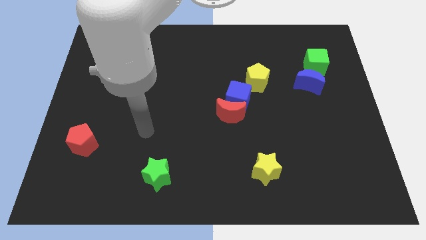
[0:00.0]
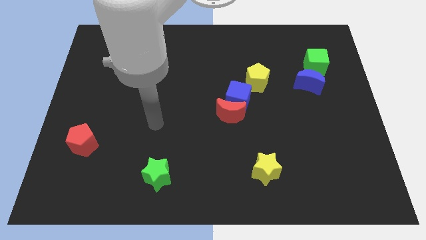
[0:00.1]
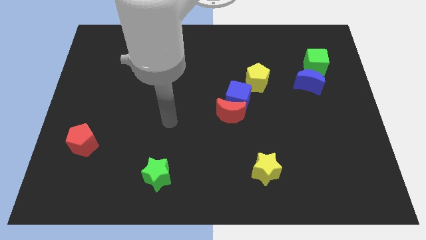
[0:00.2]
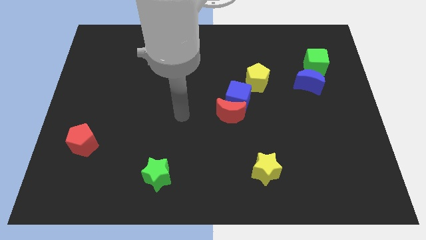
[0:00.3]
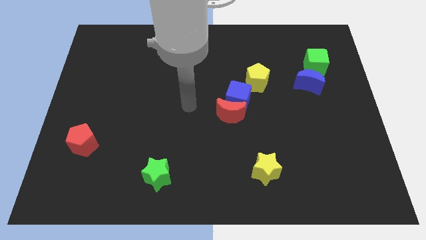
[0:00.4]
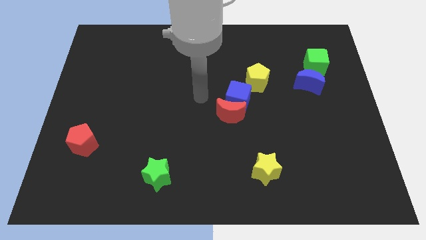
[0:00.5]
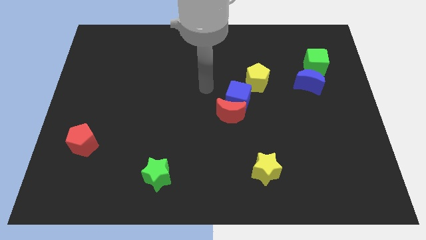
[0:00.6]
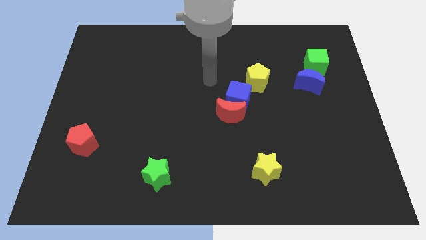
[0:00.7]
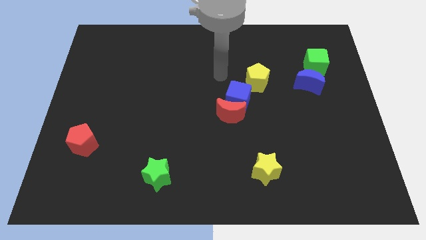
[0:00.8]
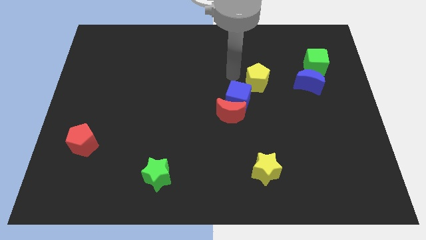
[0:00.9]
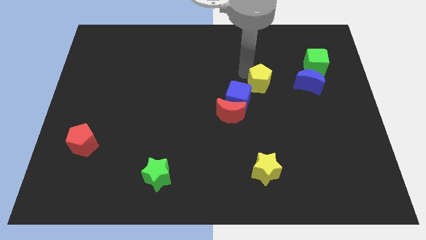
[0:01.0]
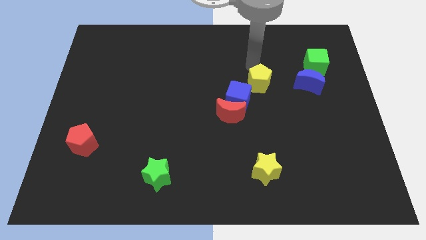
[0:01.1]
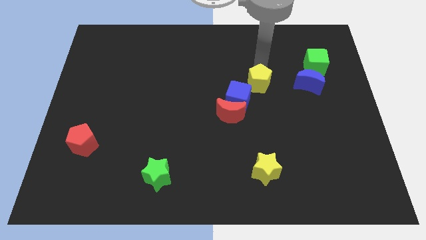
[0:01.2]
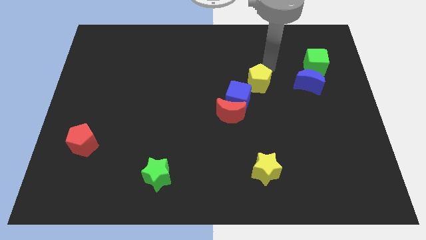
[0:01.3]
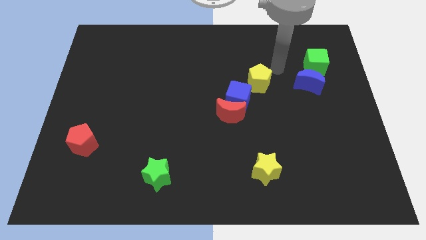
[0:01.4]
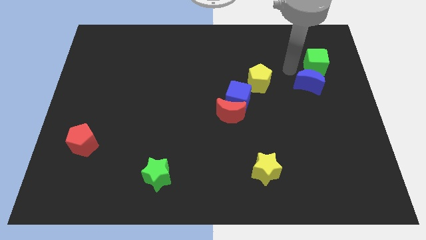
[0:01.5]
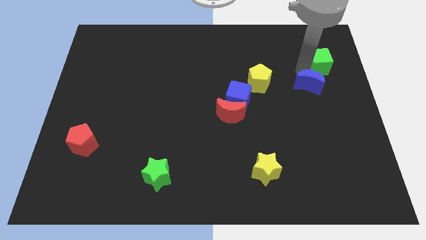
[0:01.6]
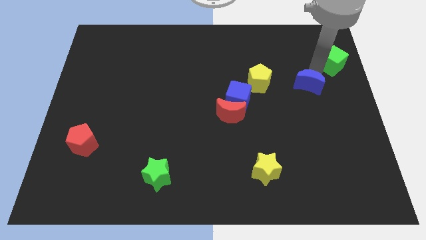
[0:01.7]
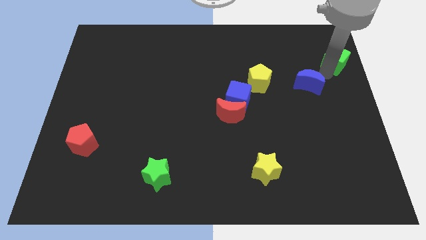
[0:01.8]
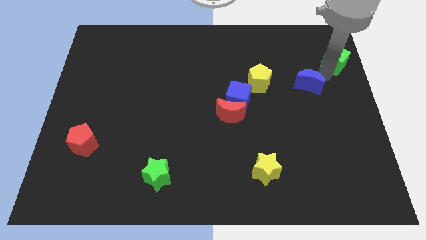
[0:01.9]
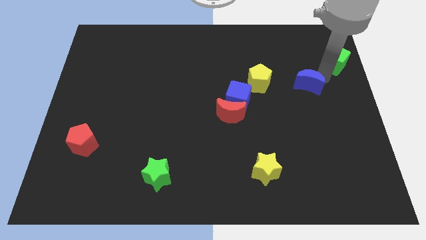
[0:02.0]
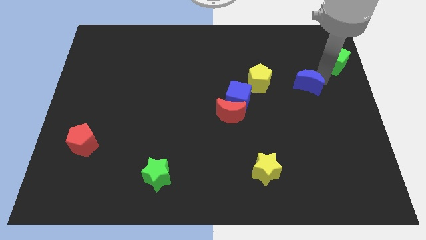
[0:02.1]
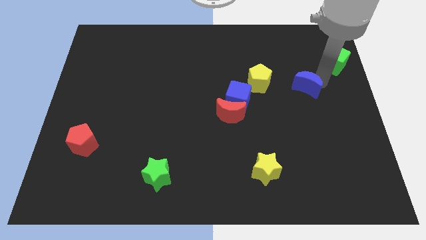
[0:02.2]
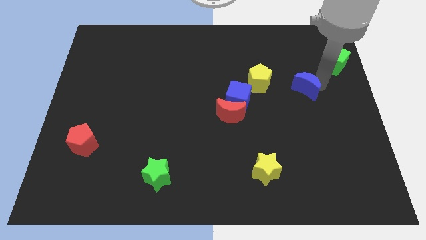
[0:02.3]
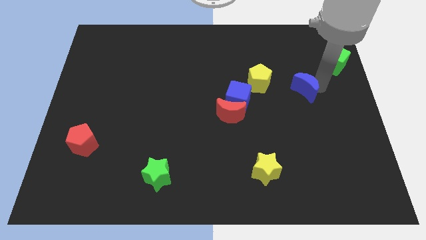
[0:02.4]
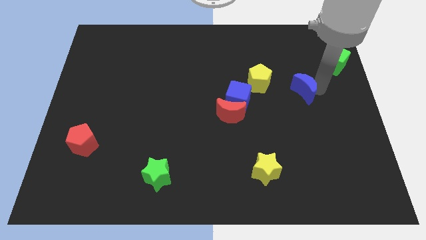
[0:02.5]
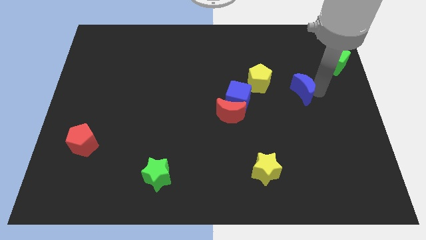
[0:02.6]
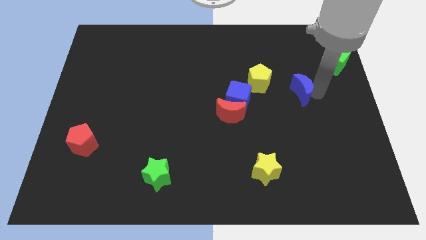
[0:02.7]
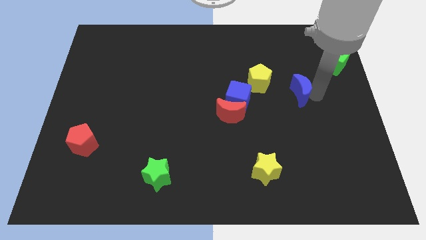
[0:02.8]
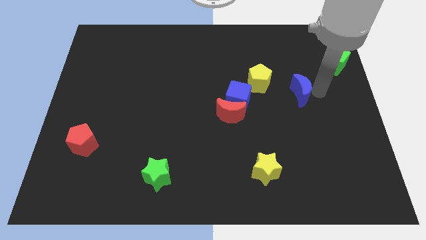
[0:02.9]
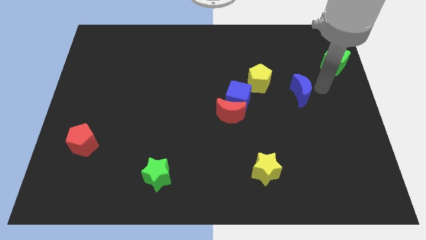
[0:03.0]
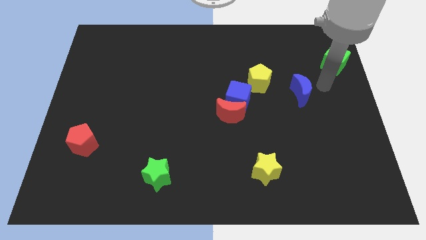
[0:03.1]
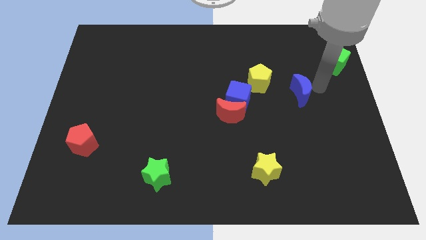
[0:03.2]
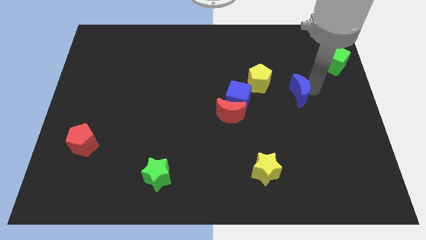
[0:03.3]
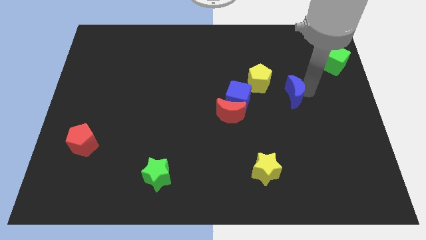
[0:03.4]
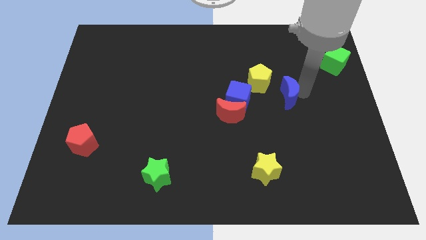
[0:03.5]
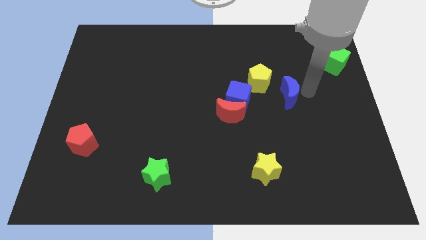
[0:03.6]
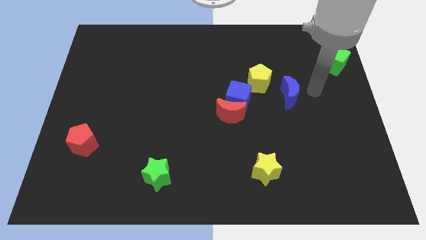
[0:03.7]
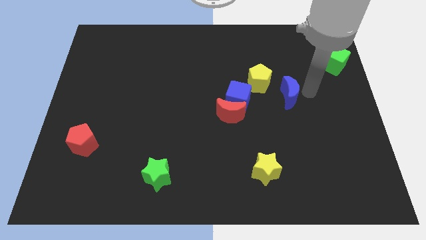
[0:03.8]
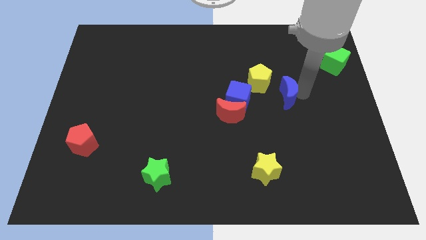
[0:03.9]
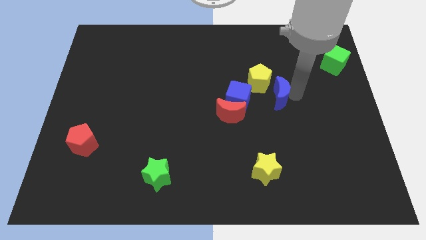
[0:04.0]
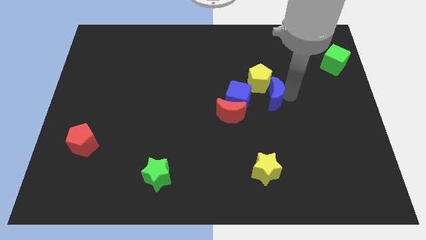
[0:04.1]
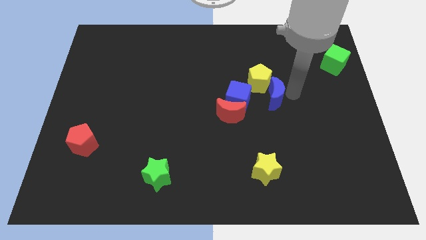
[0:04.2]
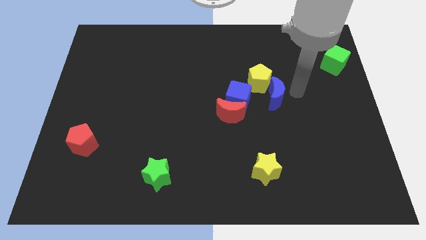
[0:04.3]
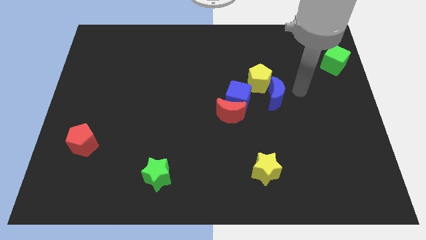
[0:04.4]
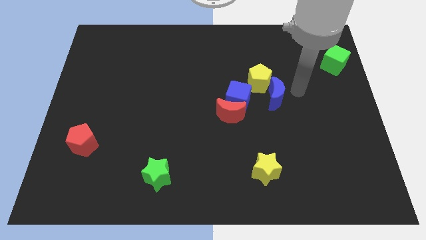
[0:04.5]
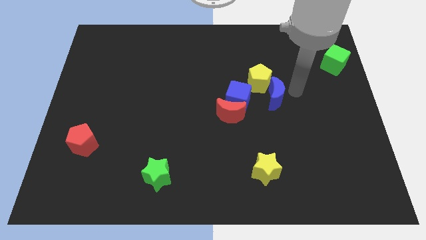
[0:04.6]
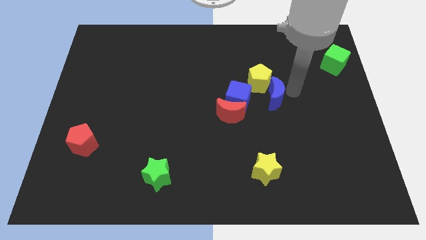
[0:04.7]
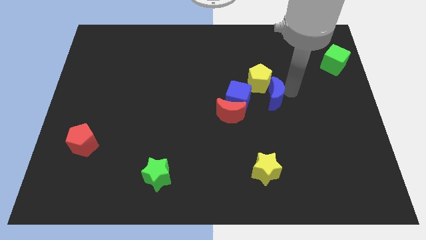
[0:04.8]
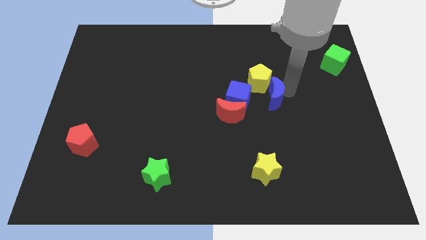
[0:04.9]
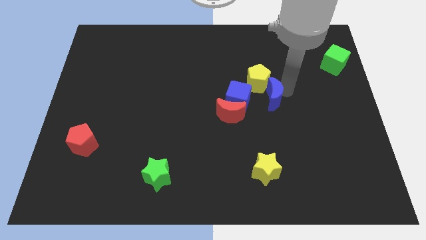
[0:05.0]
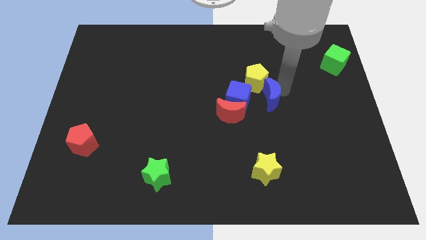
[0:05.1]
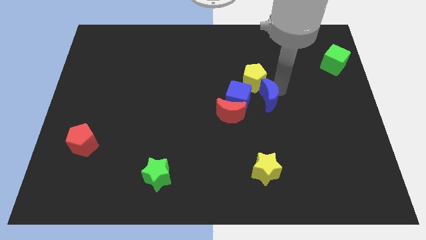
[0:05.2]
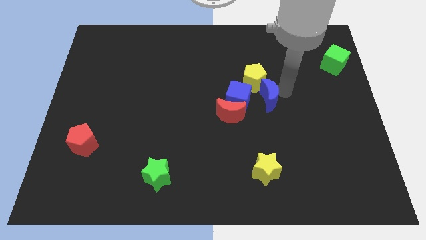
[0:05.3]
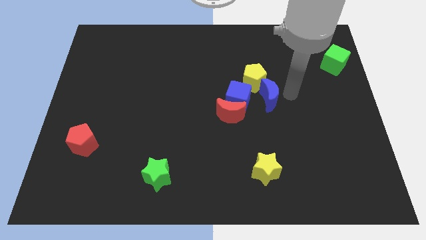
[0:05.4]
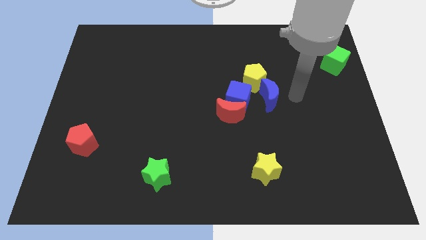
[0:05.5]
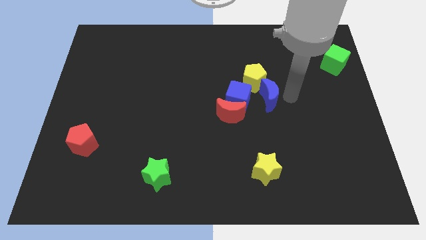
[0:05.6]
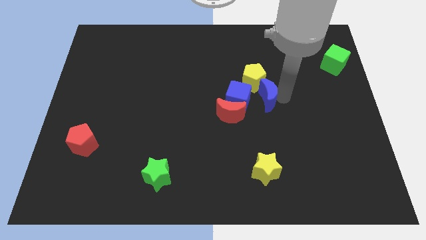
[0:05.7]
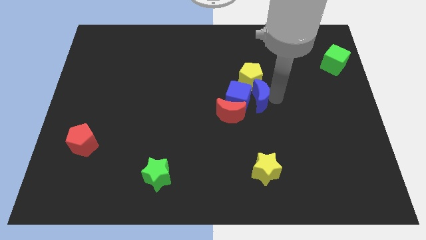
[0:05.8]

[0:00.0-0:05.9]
move the blue moon next to the blue cube

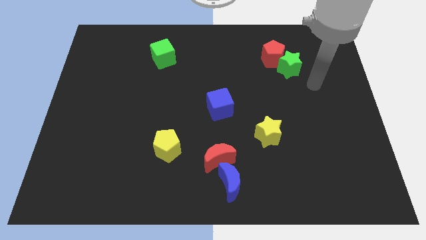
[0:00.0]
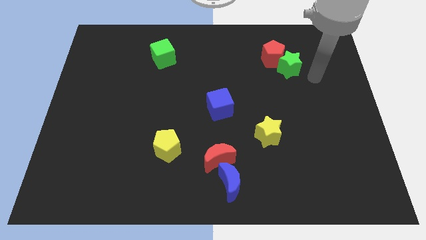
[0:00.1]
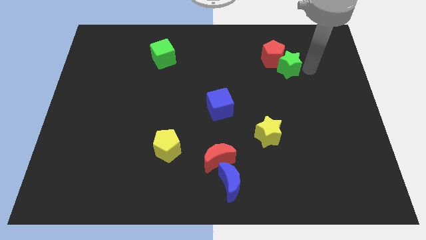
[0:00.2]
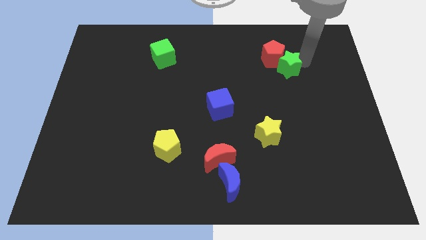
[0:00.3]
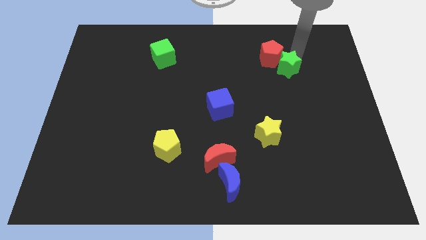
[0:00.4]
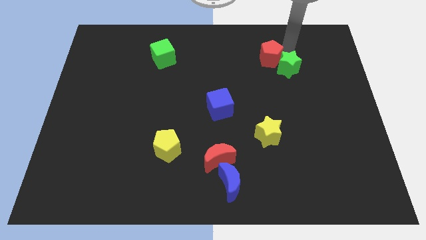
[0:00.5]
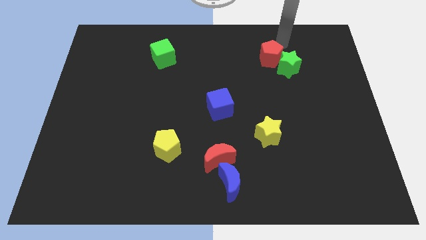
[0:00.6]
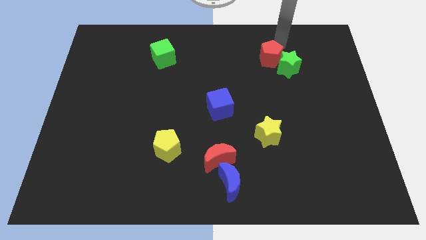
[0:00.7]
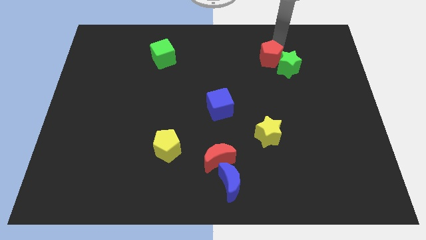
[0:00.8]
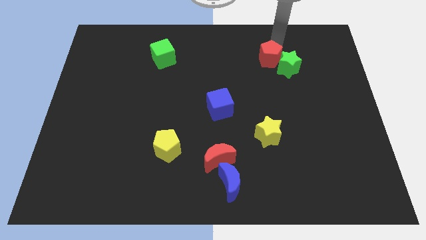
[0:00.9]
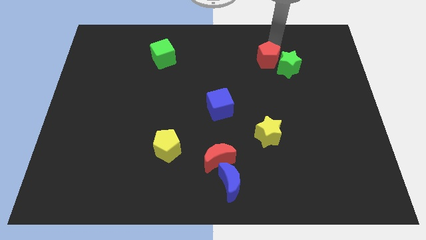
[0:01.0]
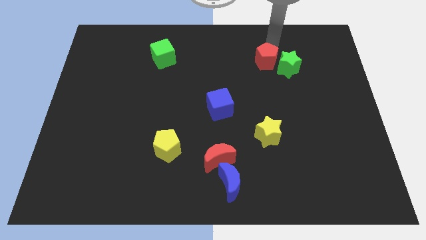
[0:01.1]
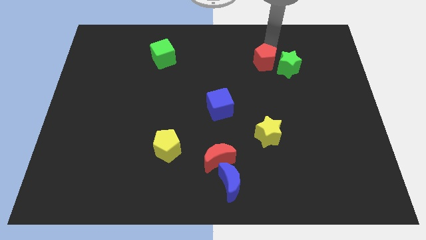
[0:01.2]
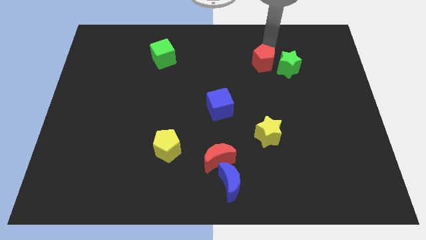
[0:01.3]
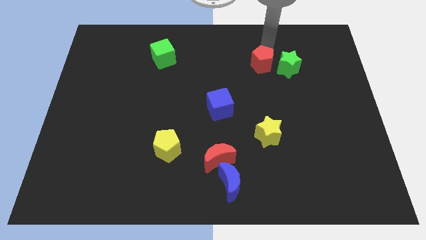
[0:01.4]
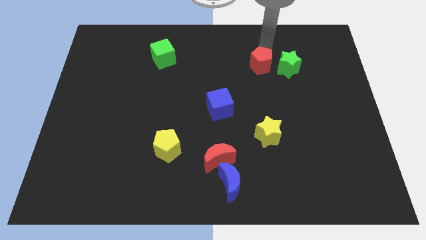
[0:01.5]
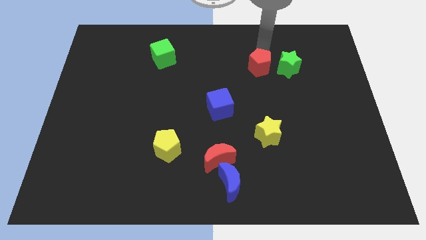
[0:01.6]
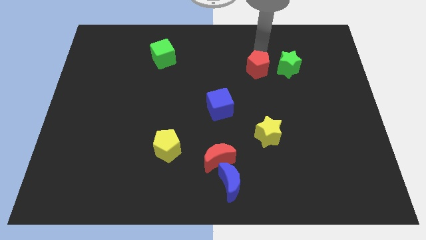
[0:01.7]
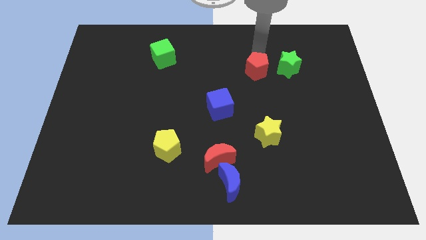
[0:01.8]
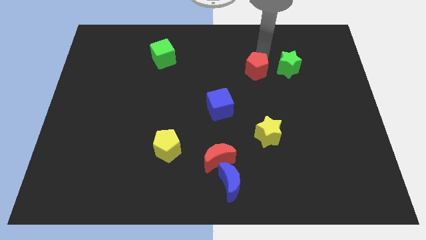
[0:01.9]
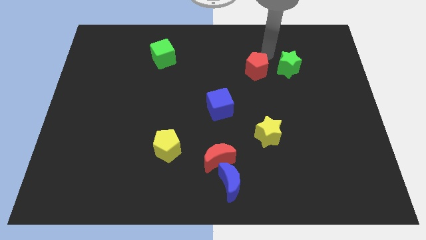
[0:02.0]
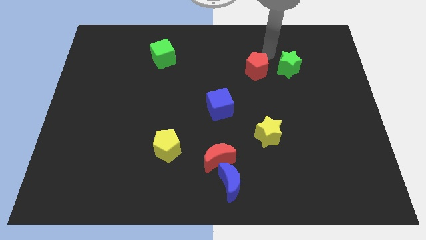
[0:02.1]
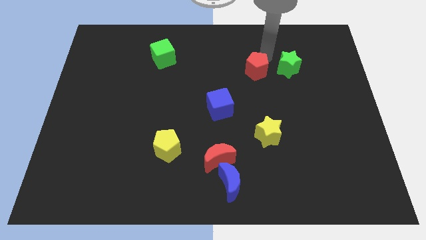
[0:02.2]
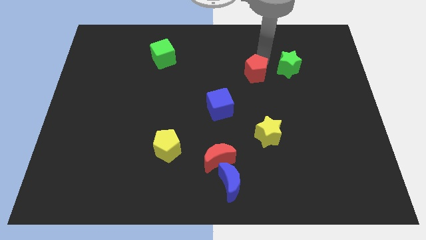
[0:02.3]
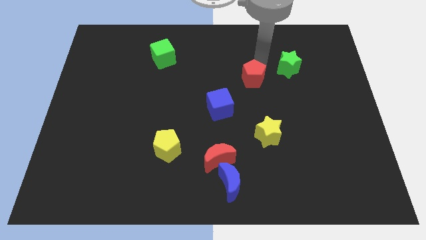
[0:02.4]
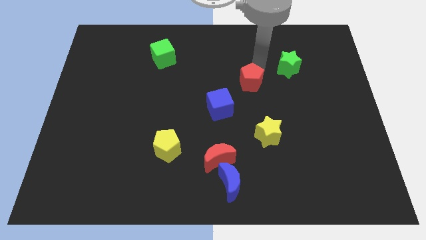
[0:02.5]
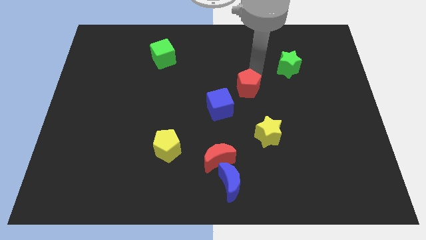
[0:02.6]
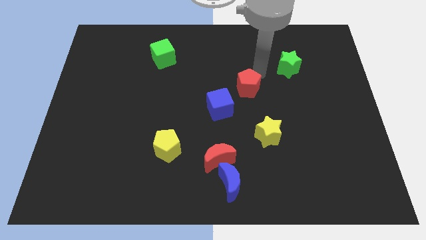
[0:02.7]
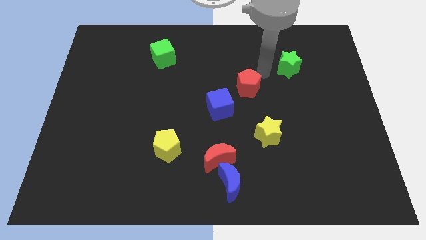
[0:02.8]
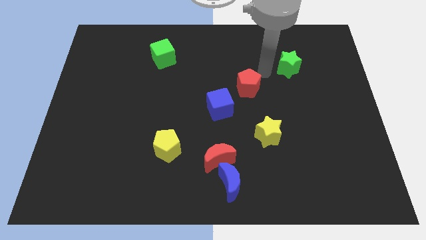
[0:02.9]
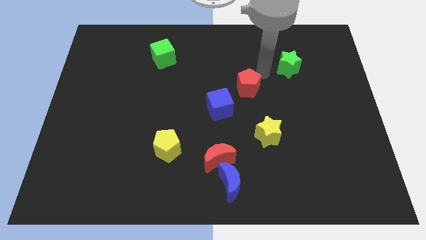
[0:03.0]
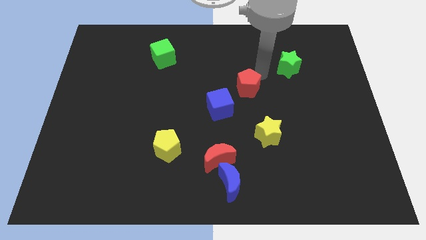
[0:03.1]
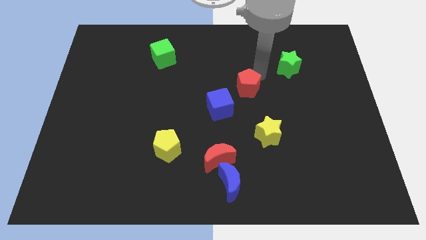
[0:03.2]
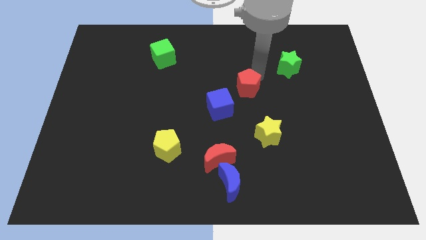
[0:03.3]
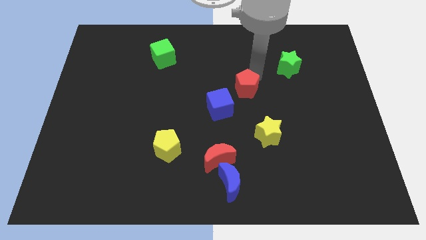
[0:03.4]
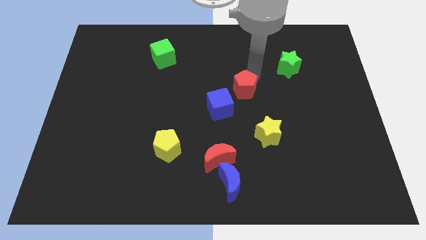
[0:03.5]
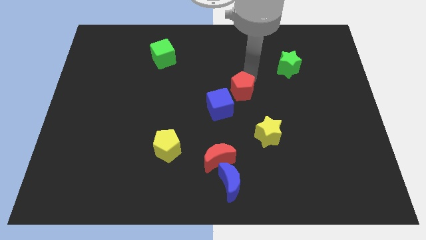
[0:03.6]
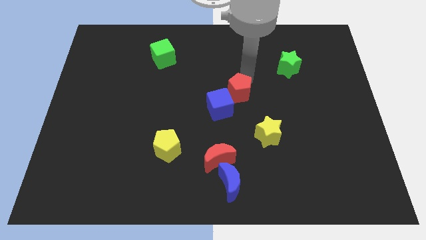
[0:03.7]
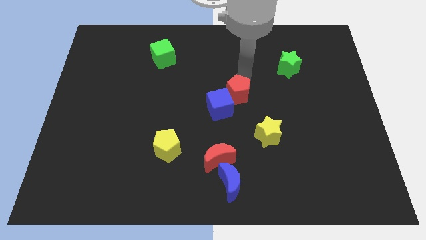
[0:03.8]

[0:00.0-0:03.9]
put the red pentagon towards the blue cube
